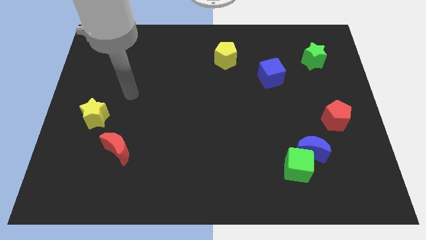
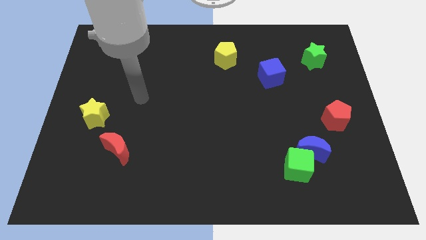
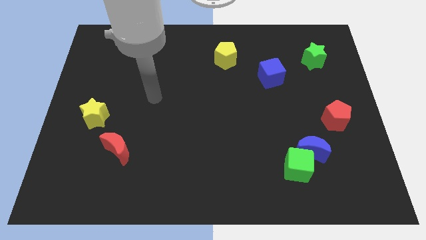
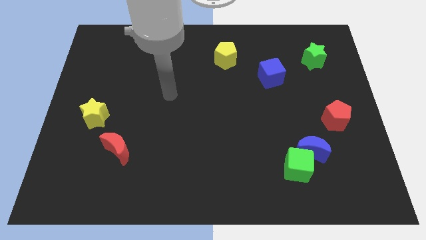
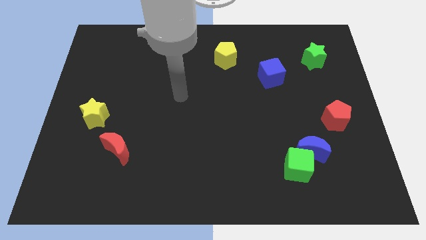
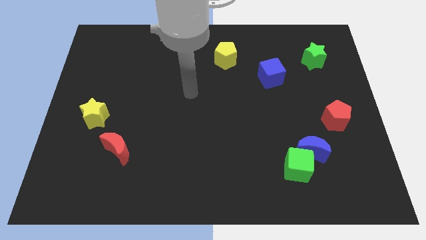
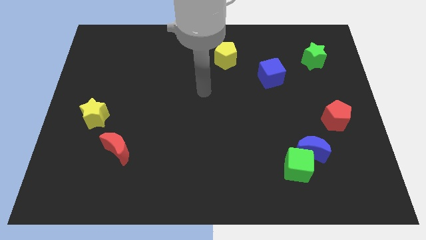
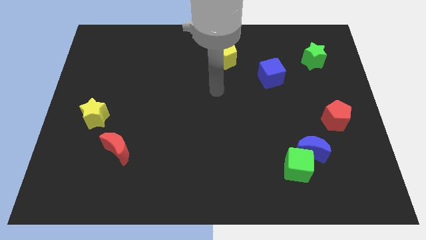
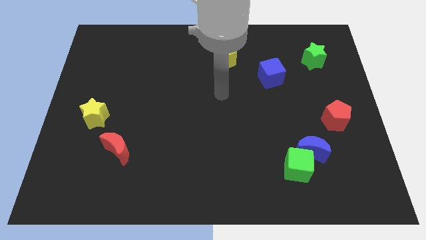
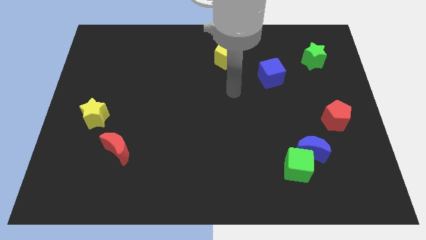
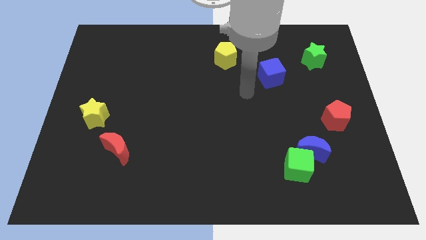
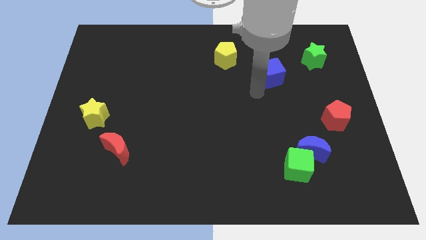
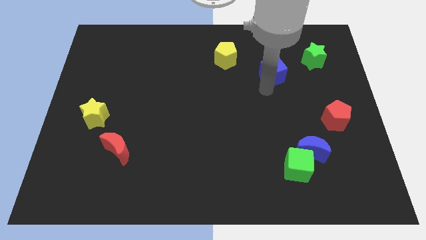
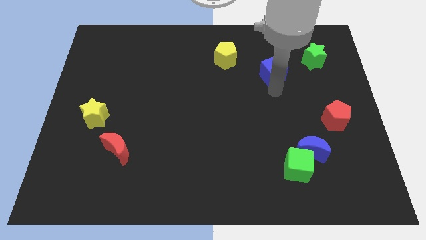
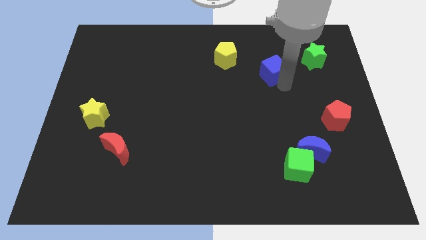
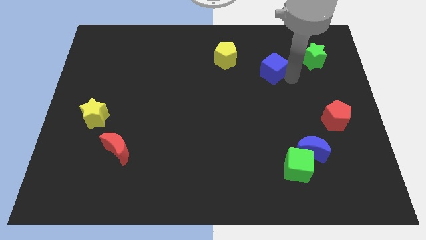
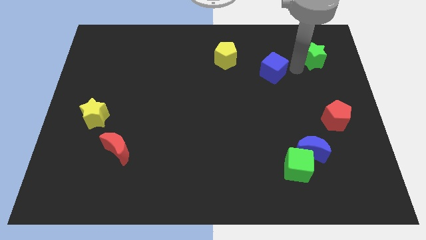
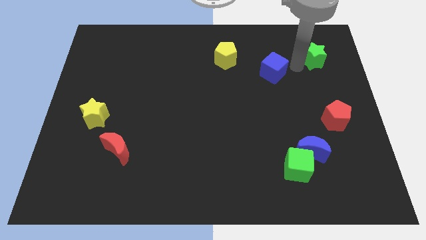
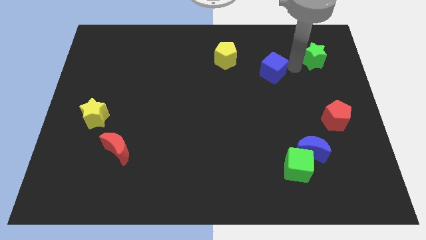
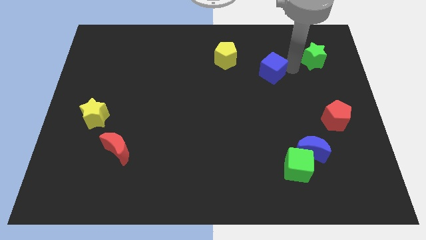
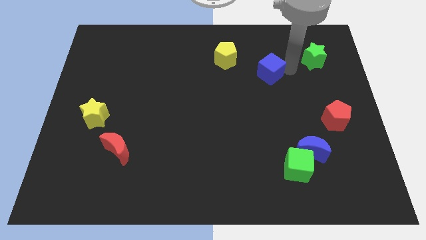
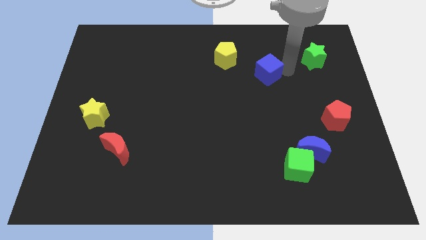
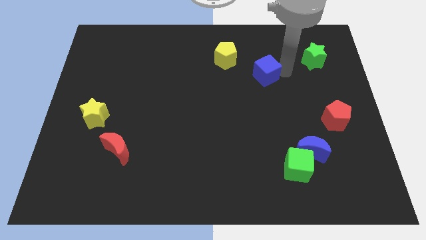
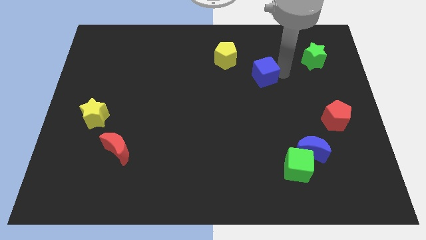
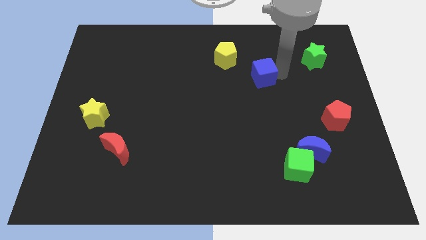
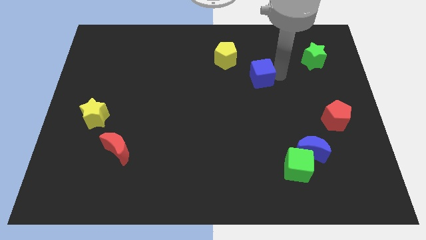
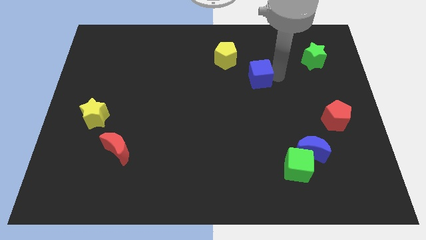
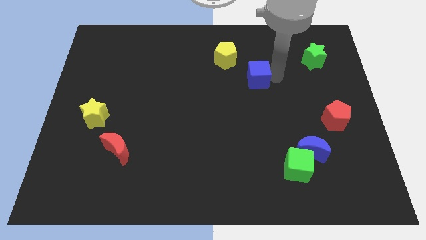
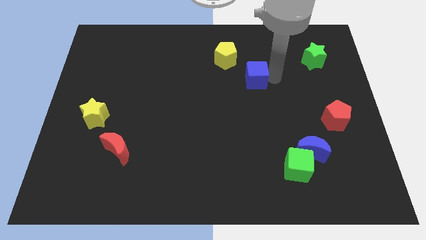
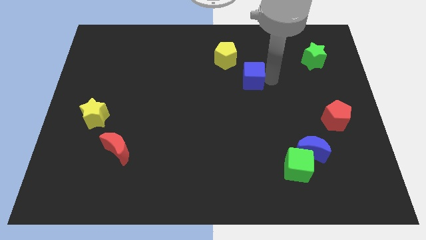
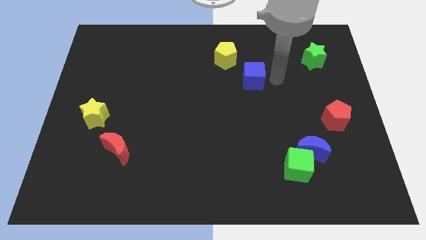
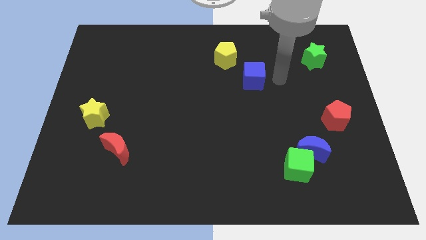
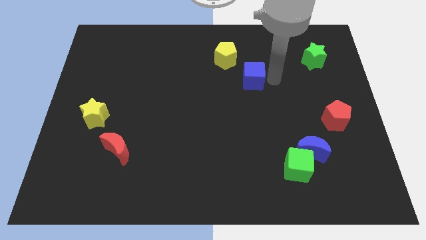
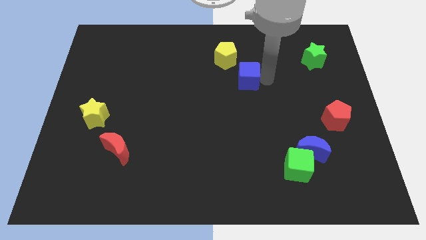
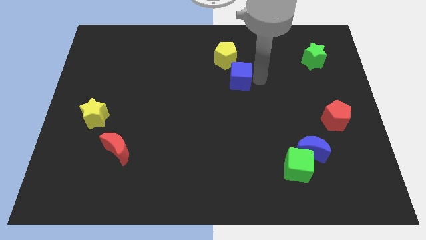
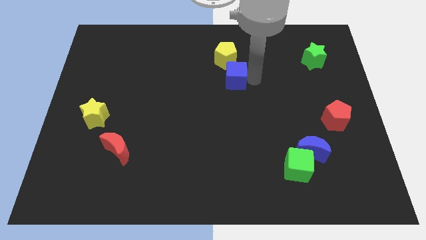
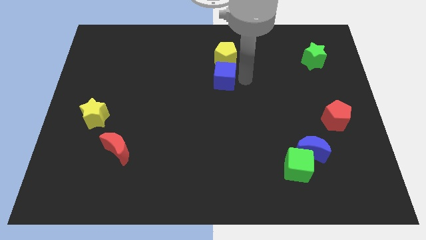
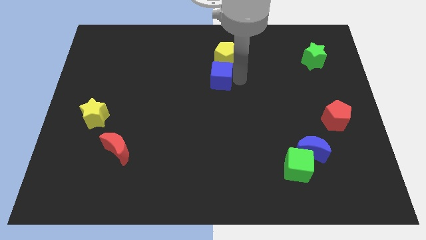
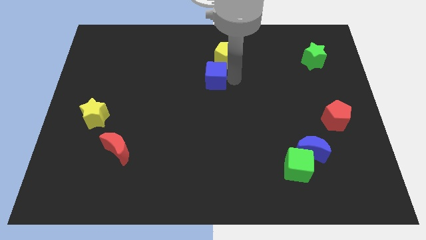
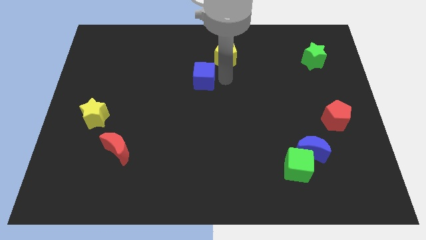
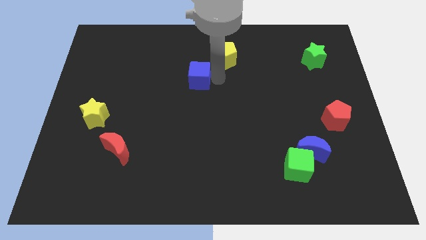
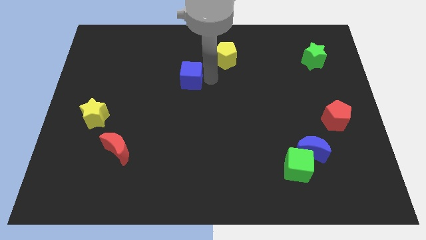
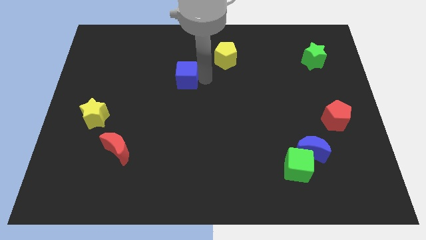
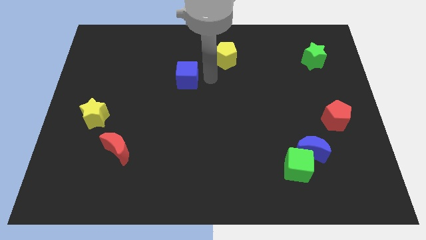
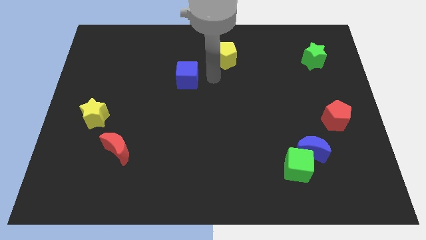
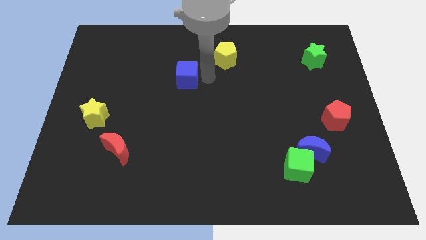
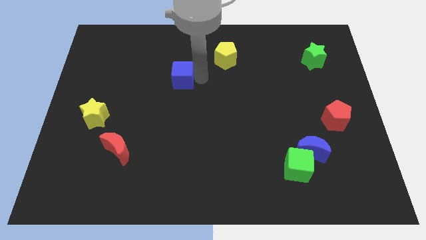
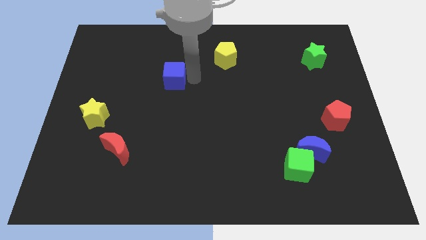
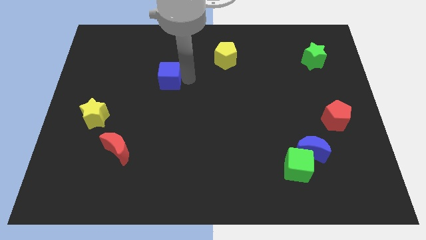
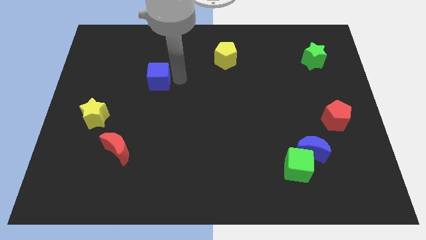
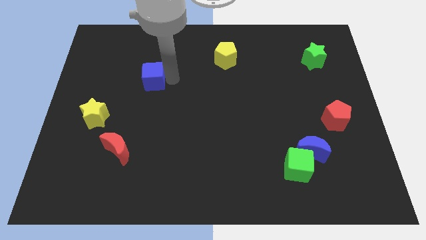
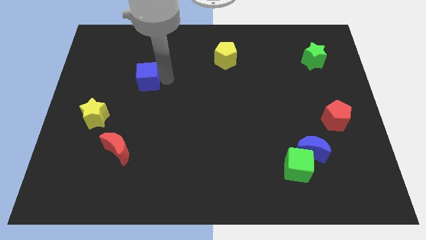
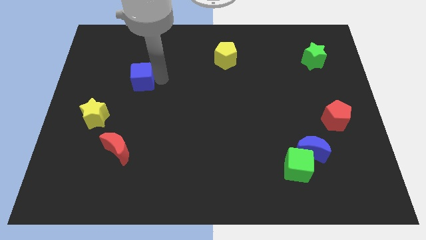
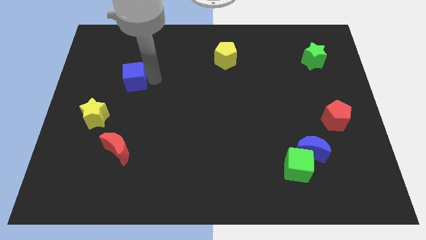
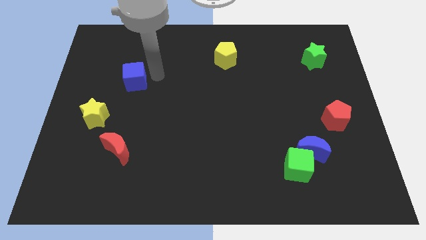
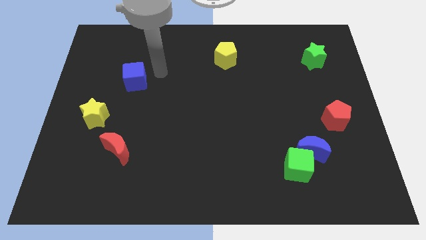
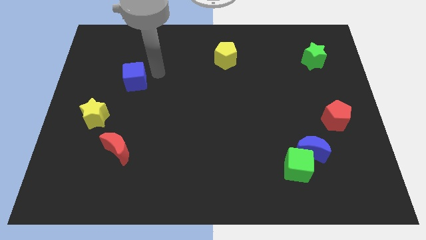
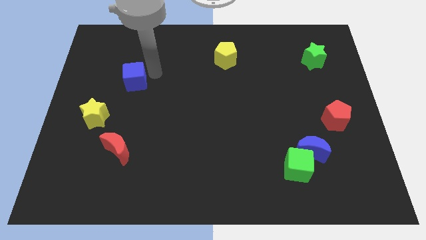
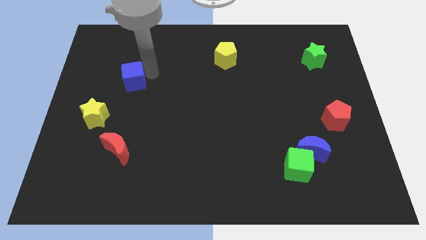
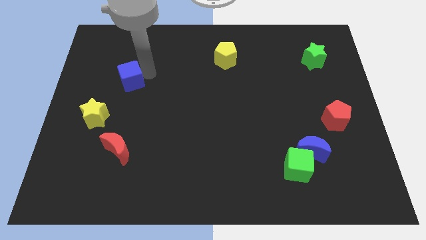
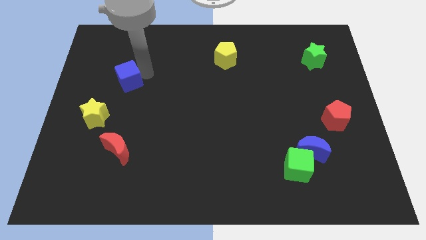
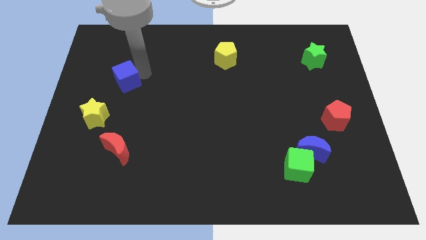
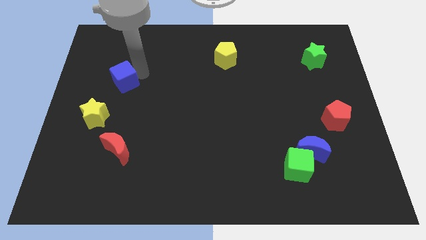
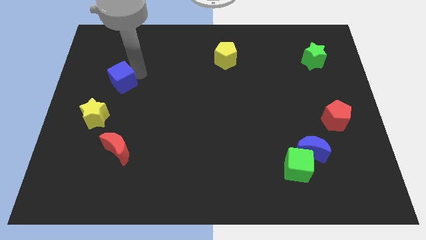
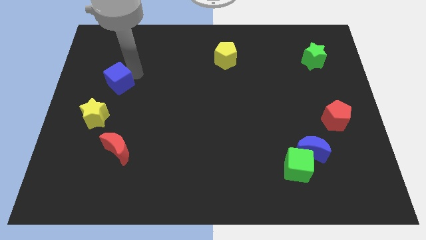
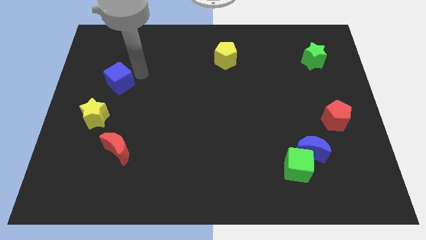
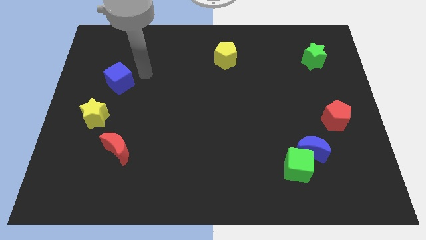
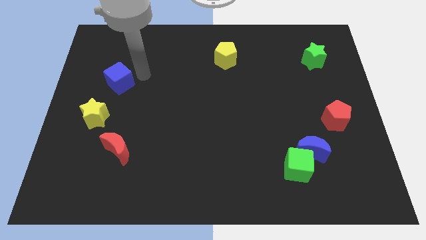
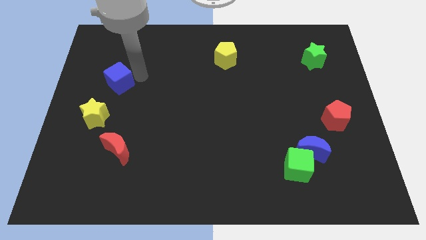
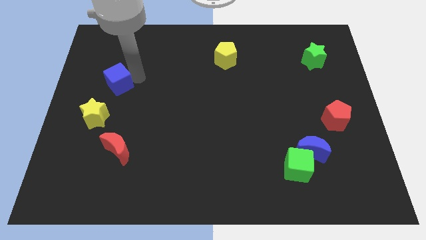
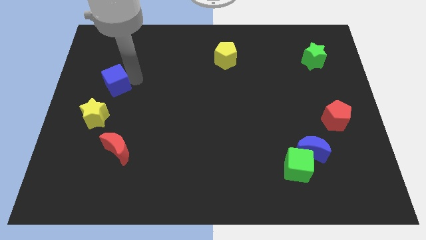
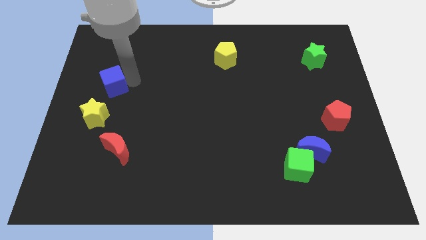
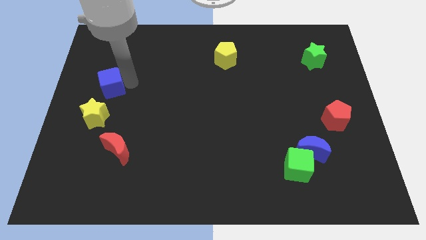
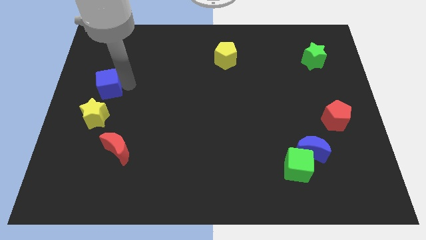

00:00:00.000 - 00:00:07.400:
slide the blue cube to the center left
